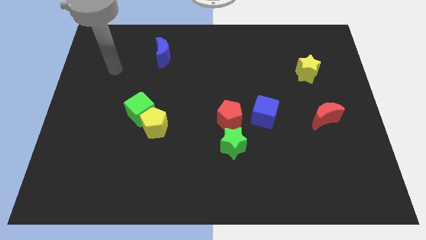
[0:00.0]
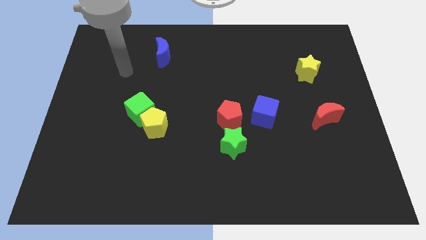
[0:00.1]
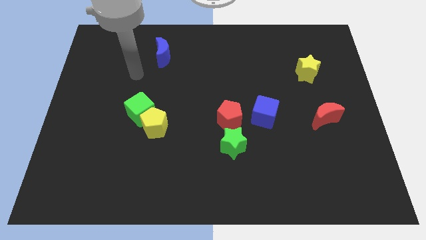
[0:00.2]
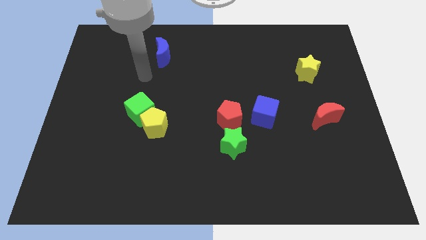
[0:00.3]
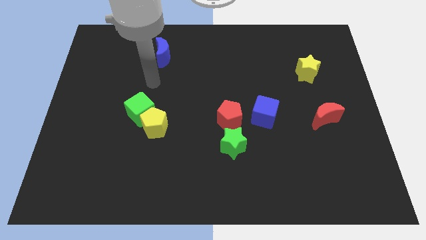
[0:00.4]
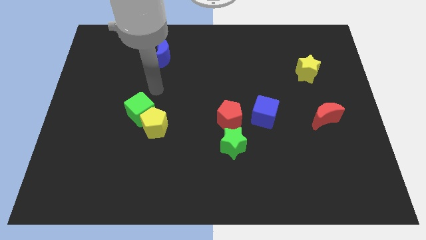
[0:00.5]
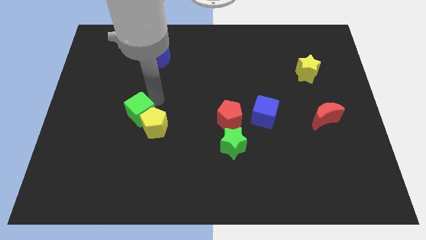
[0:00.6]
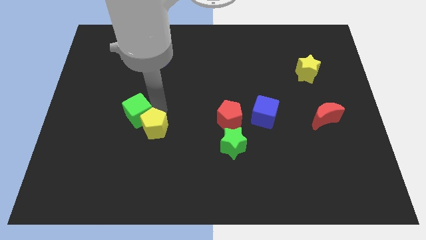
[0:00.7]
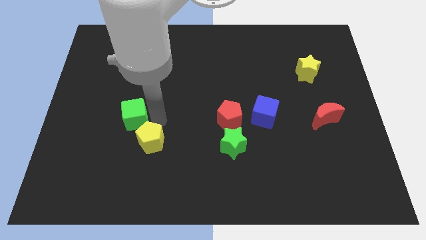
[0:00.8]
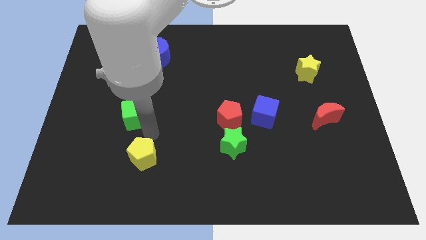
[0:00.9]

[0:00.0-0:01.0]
separate the green cube from the yellow pentagon

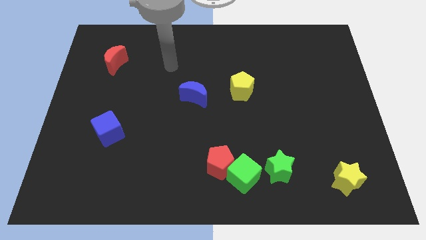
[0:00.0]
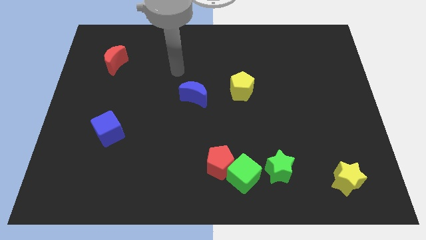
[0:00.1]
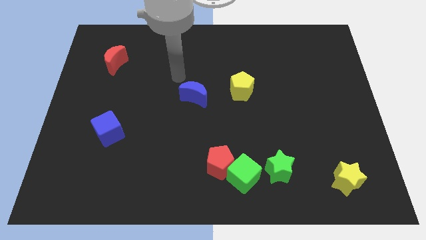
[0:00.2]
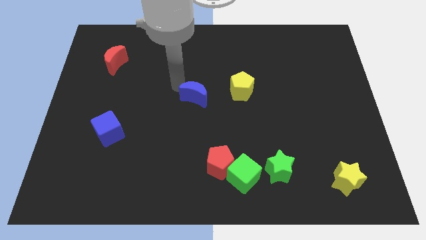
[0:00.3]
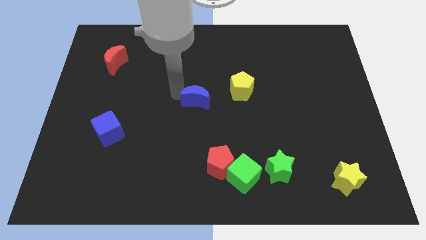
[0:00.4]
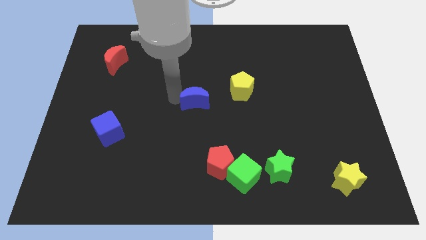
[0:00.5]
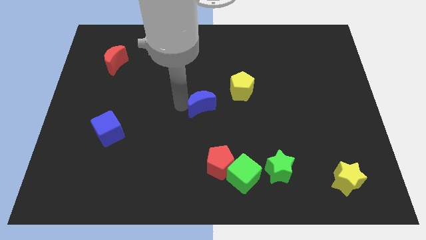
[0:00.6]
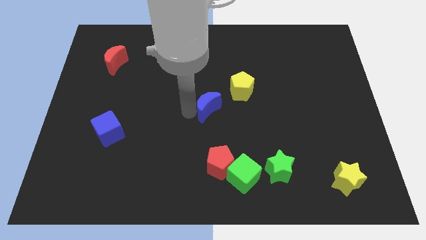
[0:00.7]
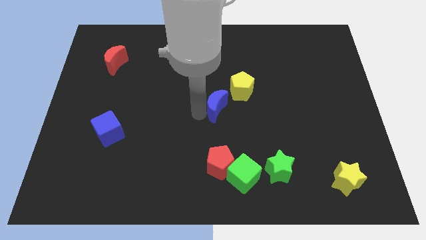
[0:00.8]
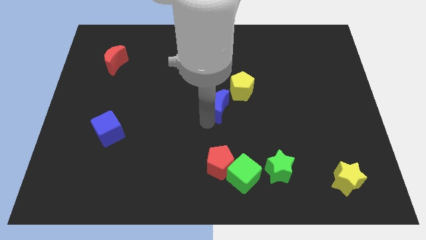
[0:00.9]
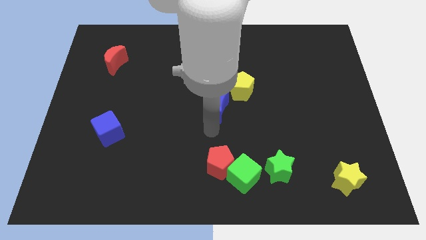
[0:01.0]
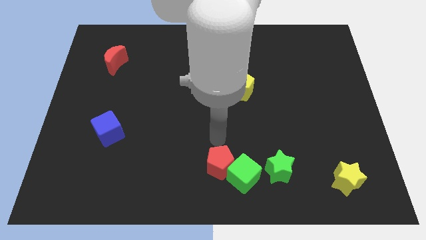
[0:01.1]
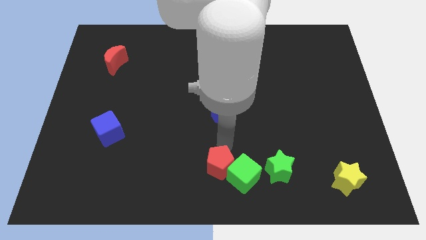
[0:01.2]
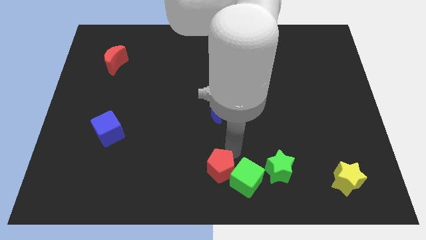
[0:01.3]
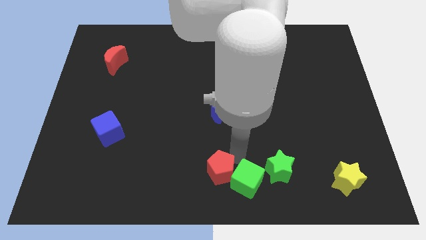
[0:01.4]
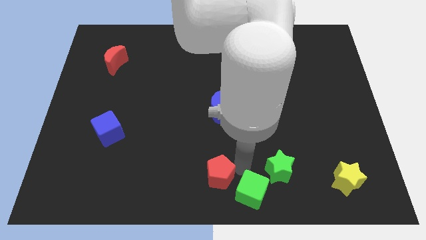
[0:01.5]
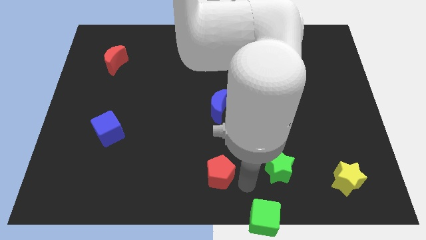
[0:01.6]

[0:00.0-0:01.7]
pull the red pentagon apart from the green cube

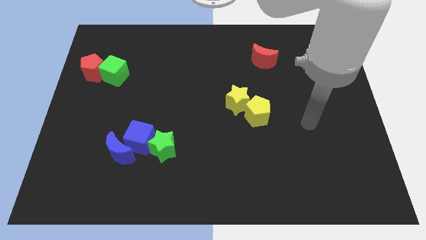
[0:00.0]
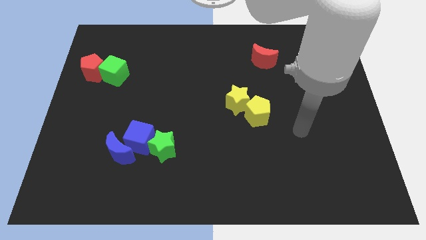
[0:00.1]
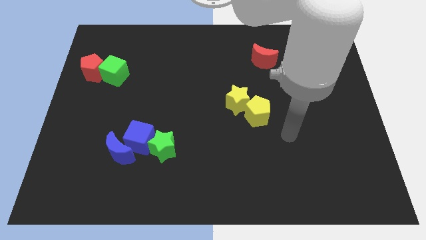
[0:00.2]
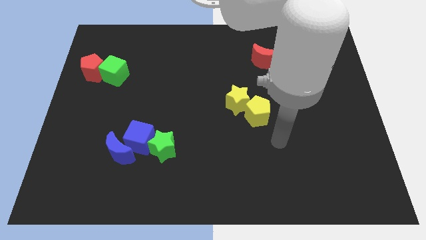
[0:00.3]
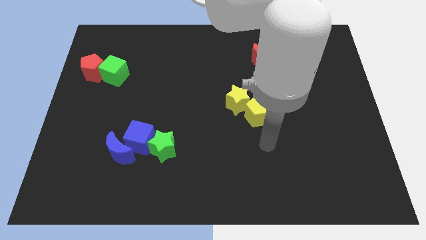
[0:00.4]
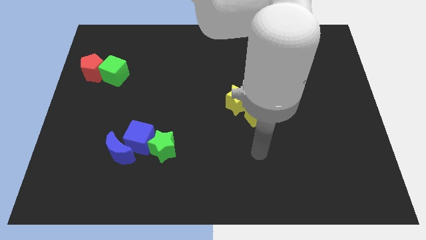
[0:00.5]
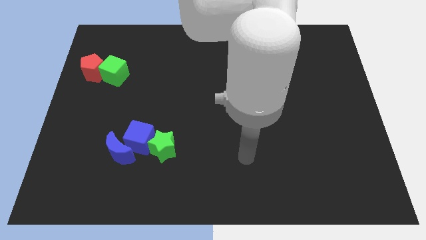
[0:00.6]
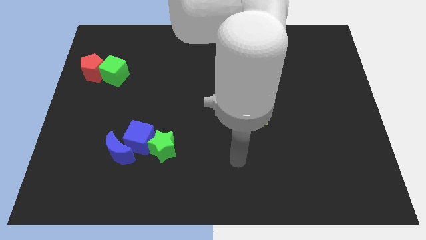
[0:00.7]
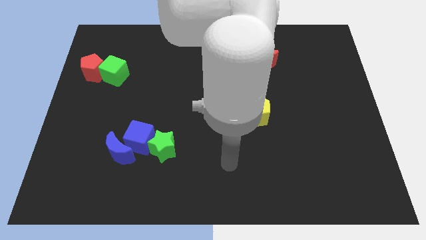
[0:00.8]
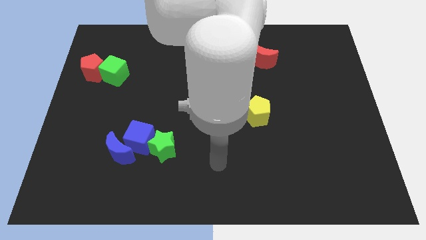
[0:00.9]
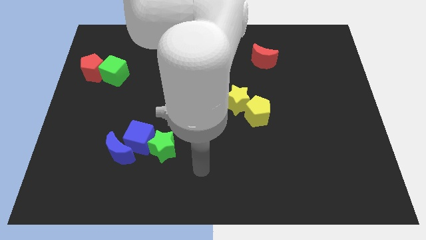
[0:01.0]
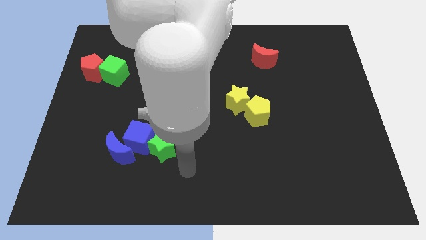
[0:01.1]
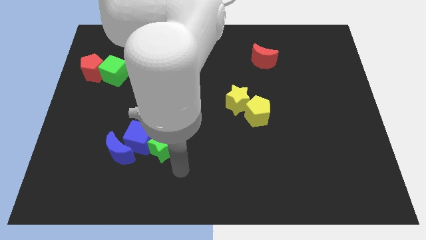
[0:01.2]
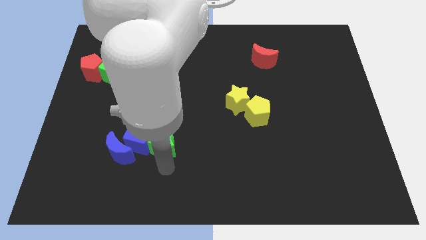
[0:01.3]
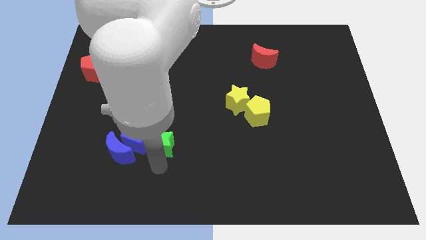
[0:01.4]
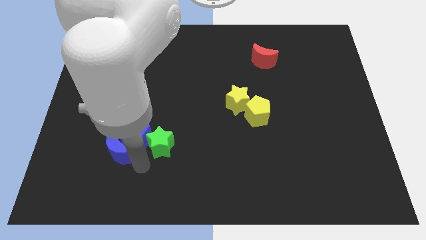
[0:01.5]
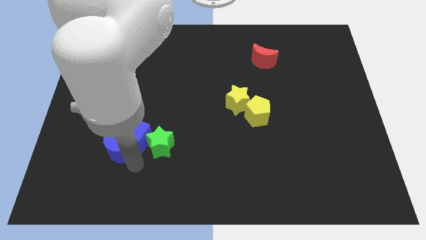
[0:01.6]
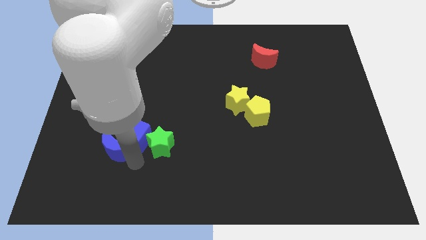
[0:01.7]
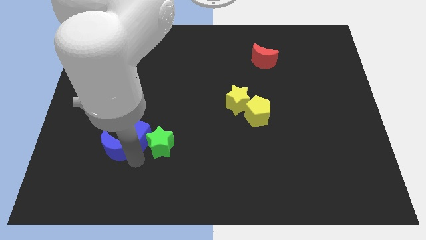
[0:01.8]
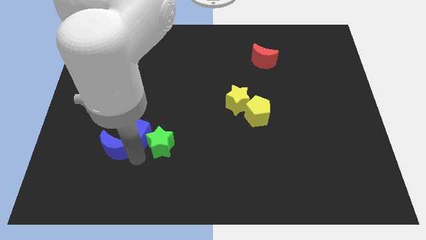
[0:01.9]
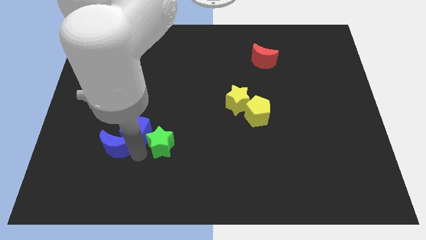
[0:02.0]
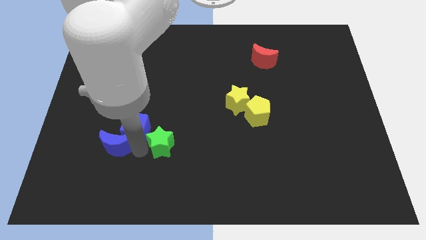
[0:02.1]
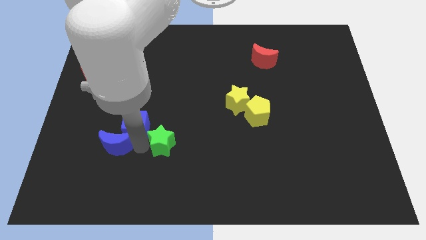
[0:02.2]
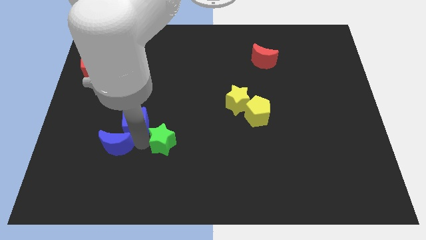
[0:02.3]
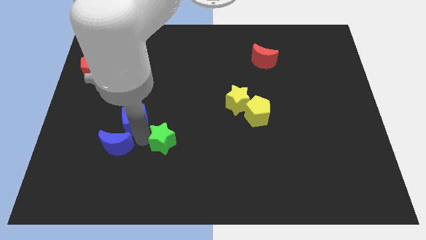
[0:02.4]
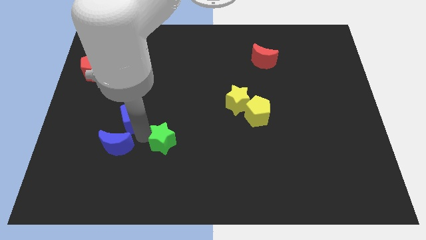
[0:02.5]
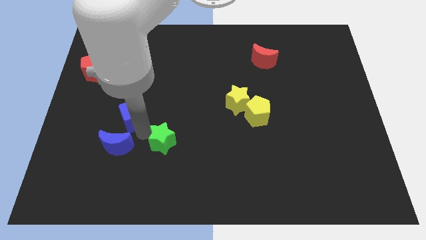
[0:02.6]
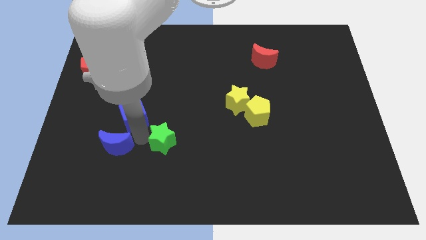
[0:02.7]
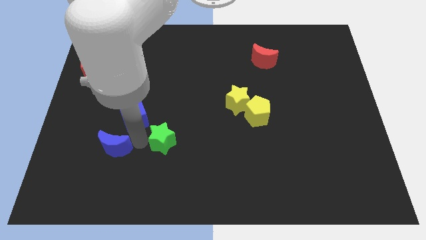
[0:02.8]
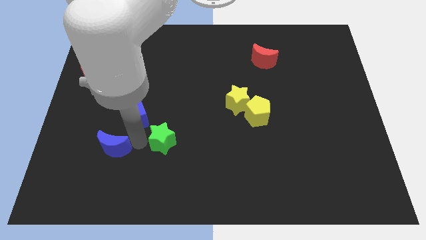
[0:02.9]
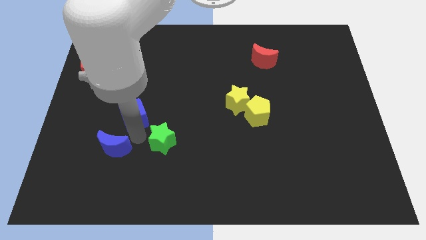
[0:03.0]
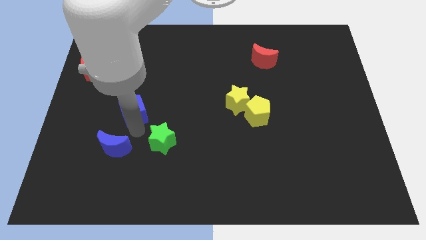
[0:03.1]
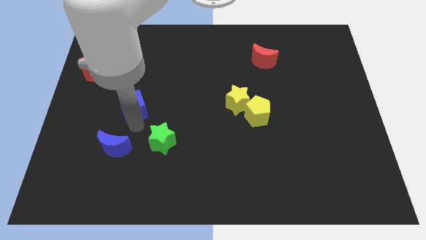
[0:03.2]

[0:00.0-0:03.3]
separate the blue cube from the blue moon and green star

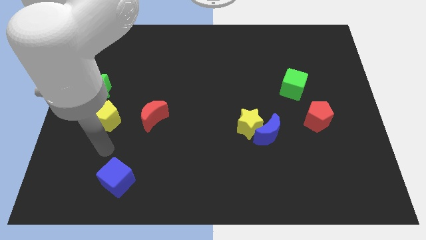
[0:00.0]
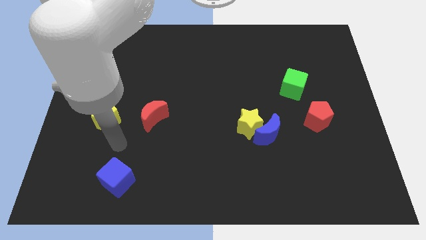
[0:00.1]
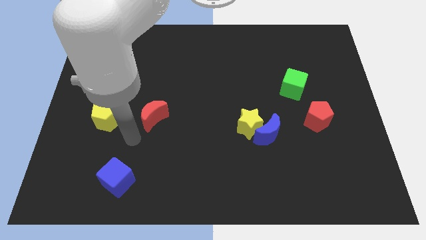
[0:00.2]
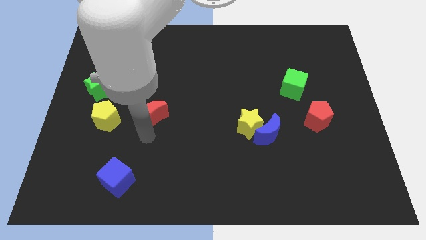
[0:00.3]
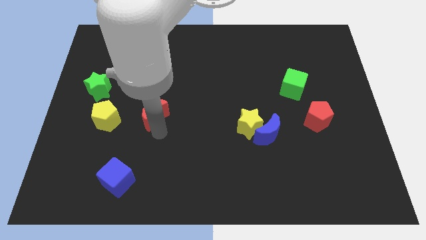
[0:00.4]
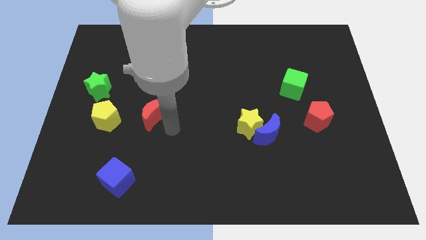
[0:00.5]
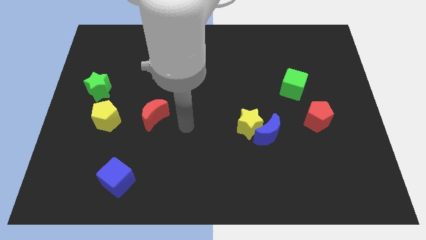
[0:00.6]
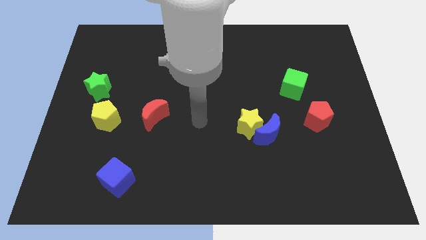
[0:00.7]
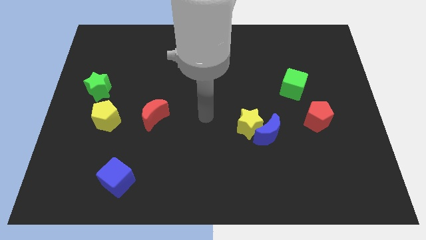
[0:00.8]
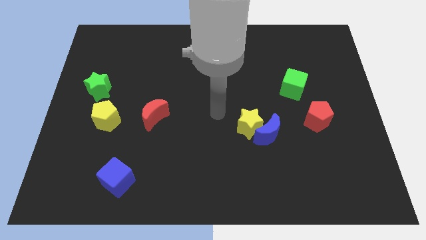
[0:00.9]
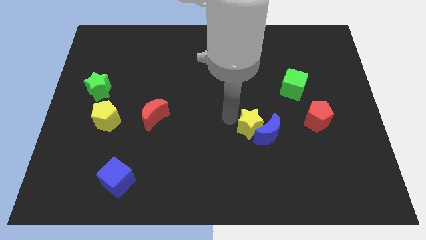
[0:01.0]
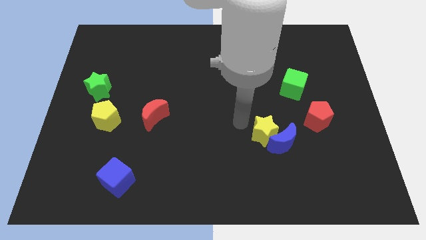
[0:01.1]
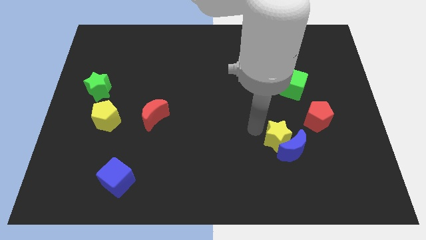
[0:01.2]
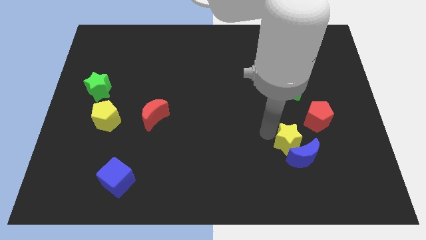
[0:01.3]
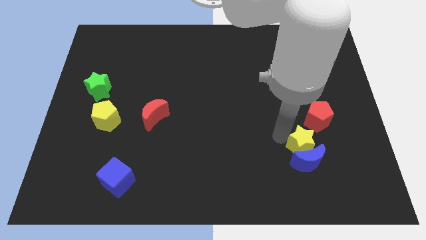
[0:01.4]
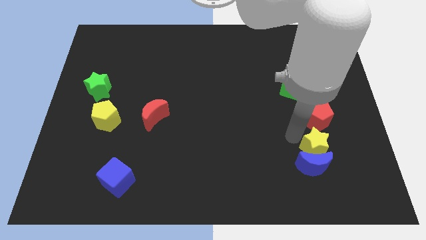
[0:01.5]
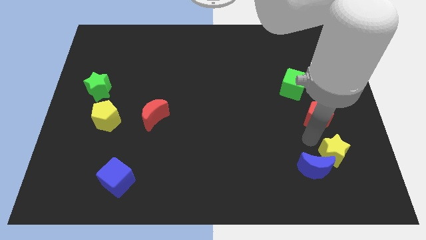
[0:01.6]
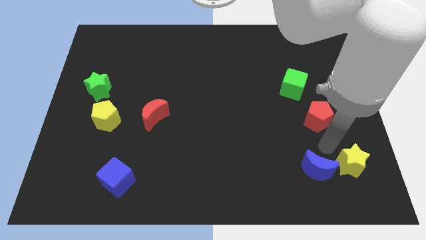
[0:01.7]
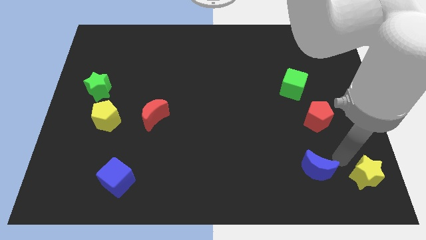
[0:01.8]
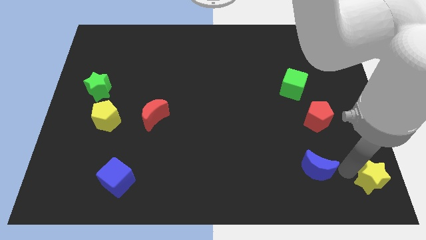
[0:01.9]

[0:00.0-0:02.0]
move the blue moon away from the yellow star

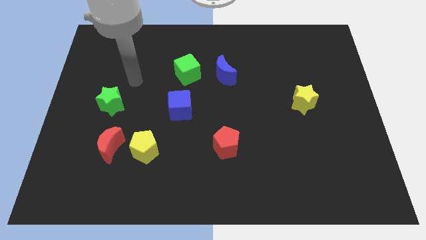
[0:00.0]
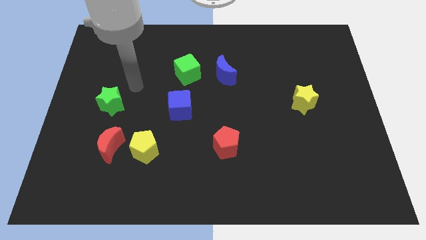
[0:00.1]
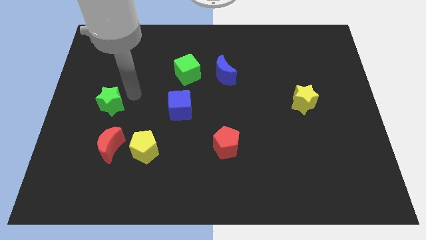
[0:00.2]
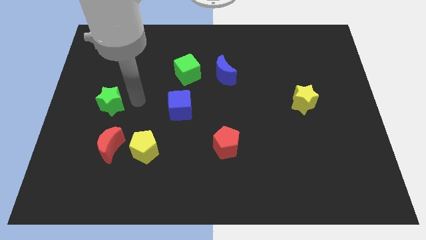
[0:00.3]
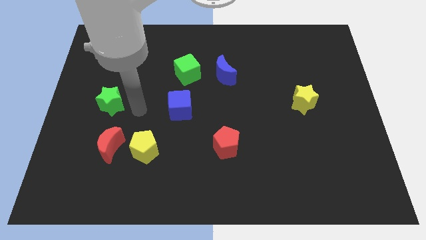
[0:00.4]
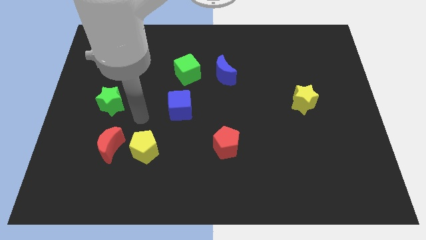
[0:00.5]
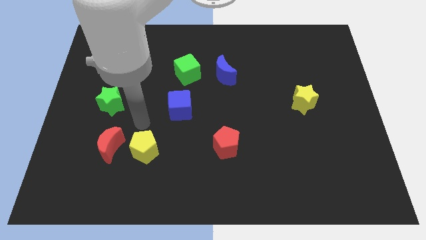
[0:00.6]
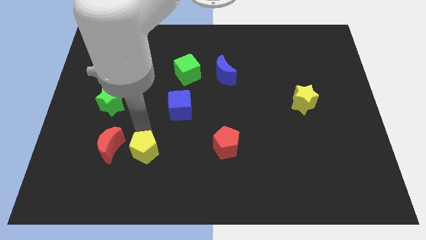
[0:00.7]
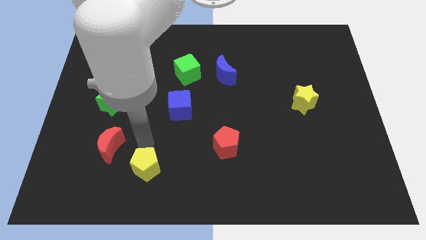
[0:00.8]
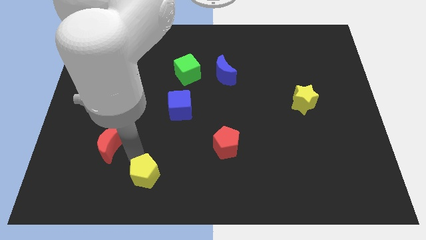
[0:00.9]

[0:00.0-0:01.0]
move the red moon away from the yellow pentagon

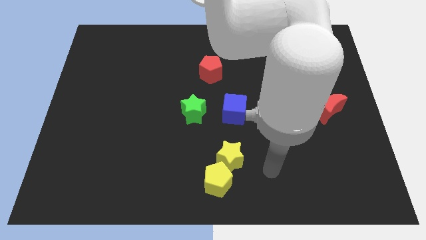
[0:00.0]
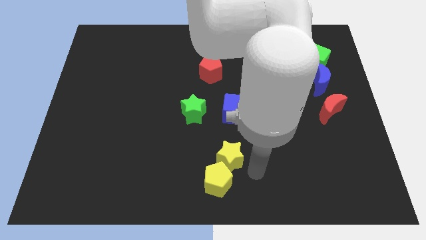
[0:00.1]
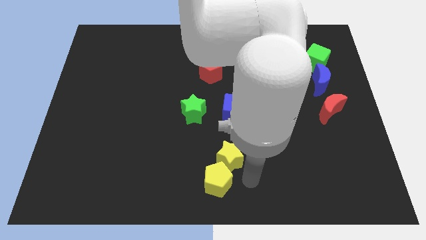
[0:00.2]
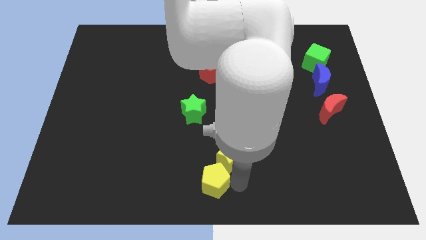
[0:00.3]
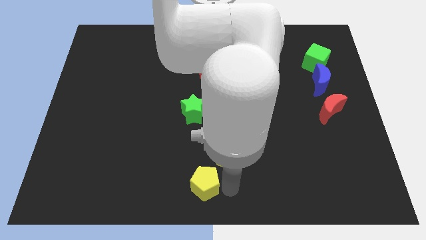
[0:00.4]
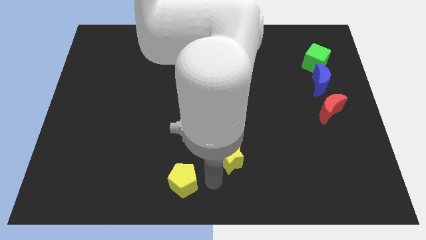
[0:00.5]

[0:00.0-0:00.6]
separate the yellow star from the yellow pentagon
